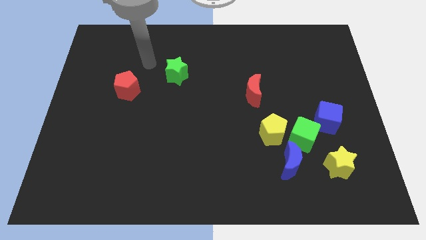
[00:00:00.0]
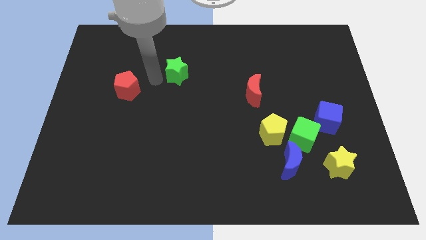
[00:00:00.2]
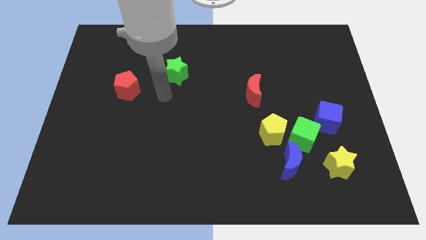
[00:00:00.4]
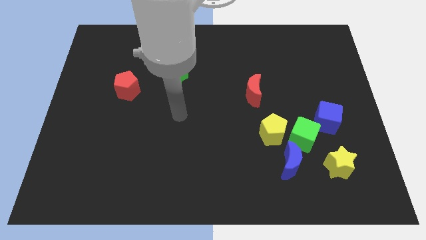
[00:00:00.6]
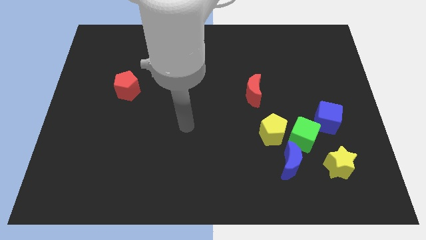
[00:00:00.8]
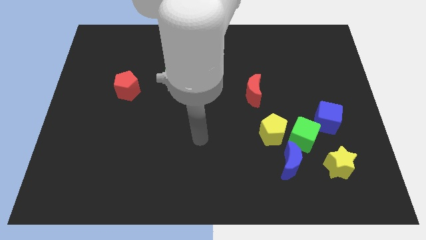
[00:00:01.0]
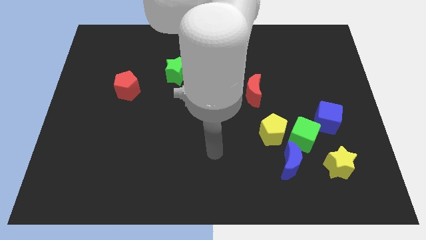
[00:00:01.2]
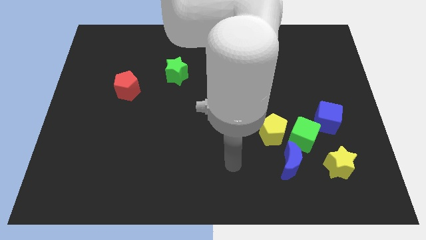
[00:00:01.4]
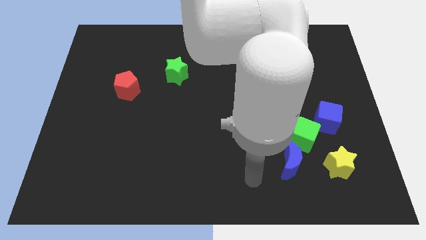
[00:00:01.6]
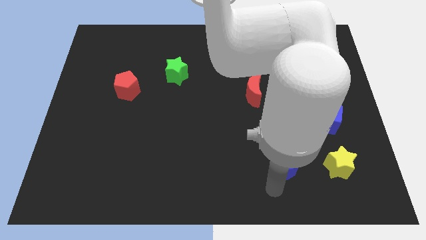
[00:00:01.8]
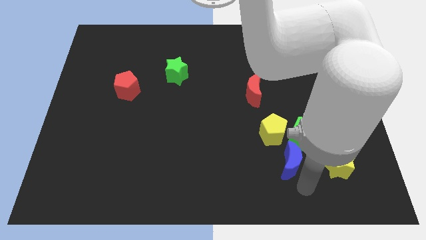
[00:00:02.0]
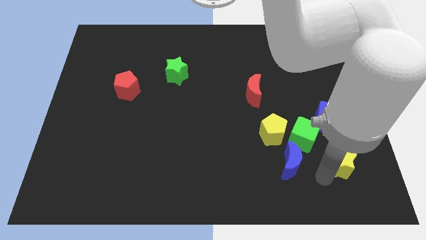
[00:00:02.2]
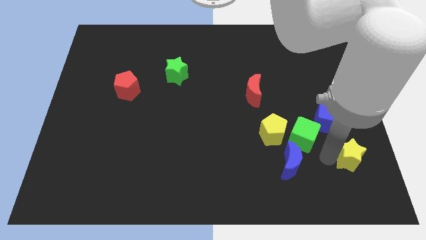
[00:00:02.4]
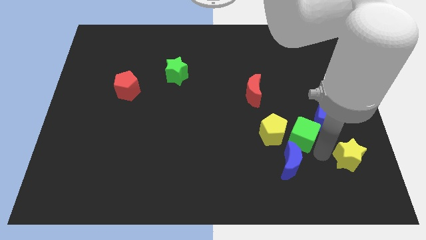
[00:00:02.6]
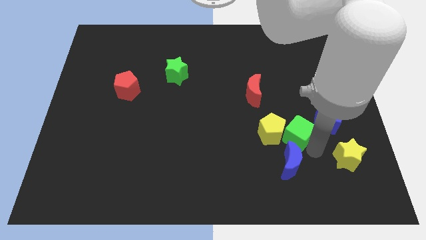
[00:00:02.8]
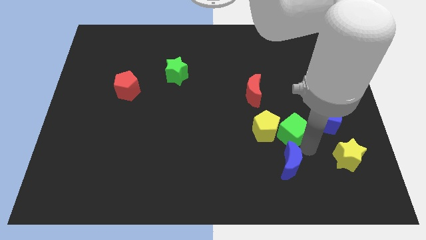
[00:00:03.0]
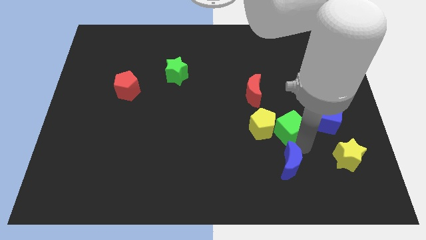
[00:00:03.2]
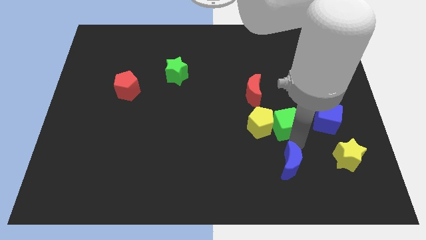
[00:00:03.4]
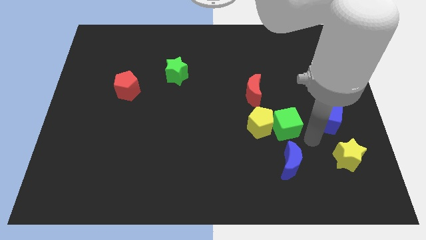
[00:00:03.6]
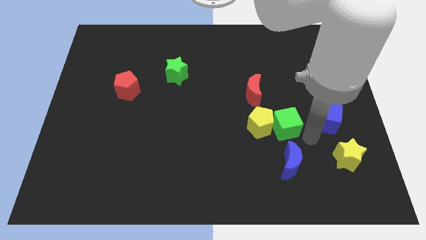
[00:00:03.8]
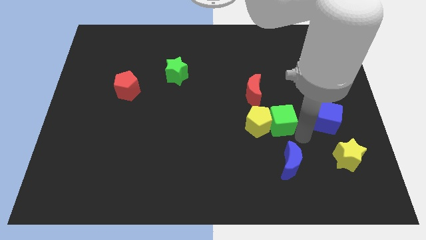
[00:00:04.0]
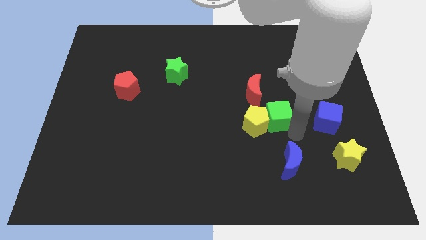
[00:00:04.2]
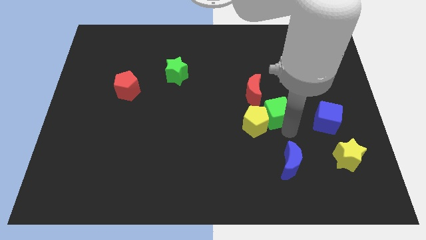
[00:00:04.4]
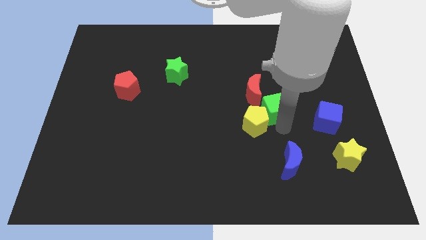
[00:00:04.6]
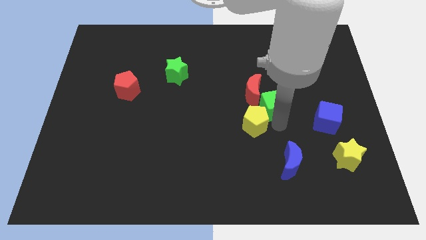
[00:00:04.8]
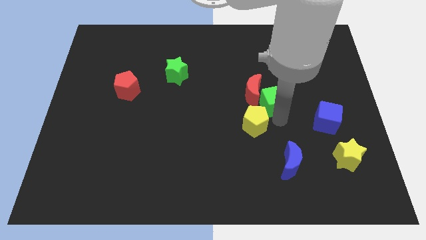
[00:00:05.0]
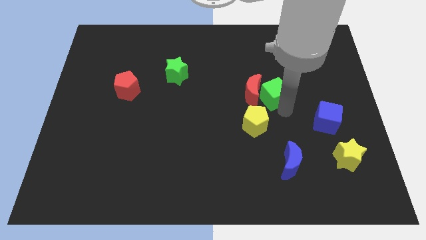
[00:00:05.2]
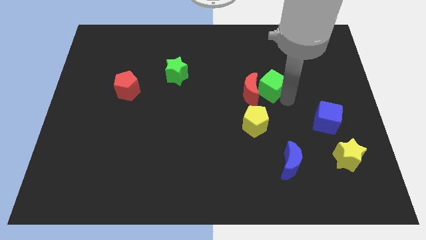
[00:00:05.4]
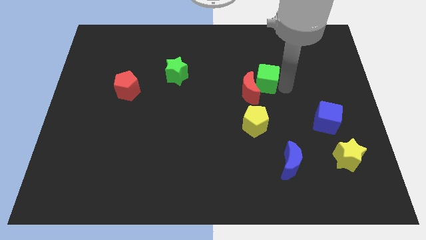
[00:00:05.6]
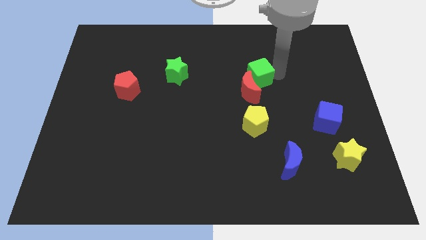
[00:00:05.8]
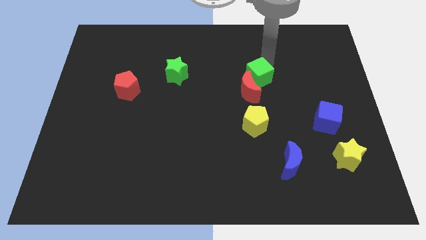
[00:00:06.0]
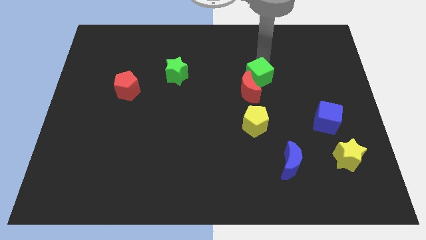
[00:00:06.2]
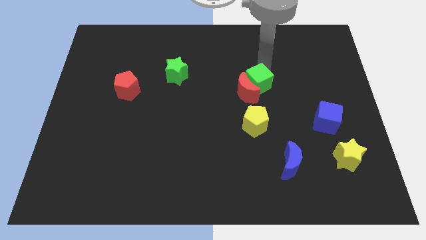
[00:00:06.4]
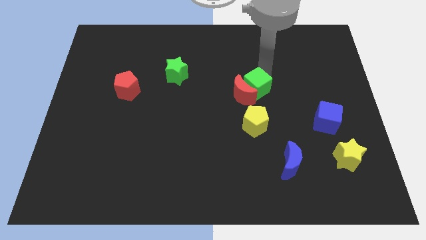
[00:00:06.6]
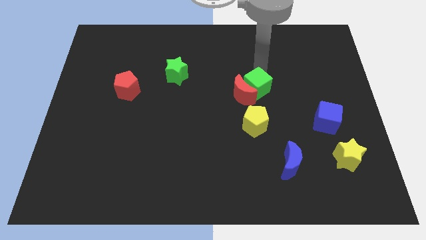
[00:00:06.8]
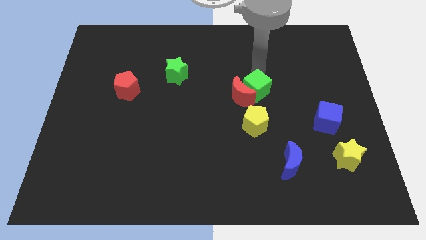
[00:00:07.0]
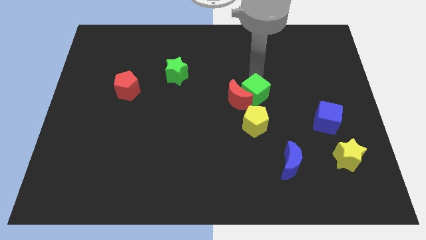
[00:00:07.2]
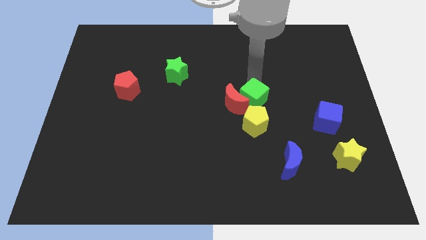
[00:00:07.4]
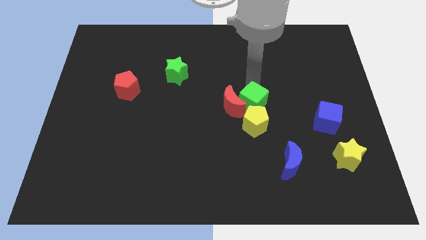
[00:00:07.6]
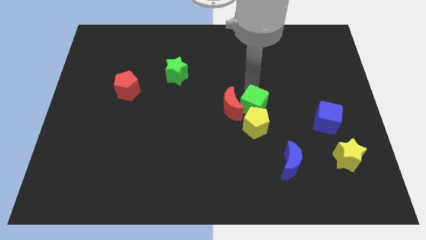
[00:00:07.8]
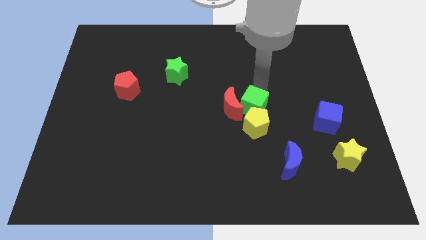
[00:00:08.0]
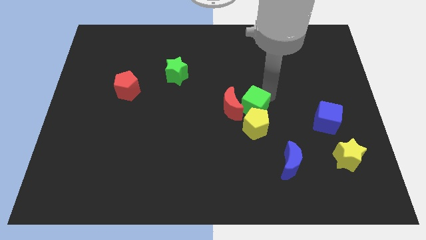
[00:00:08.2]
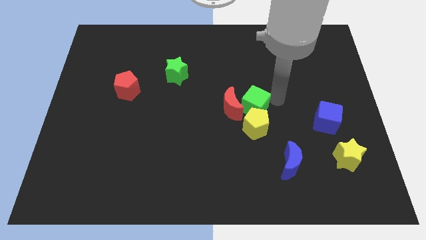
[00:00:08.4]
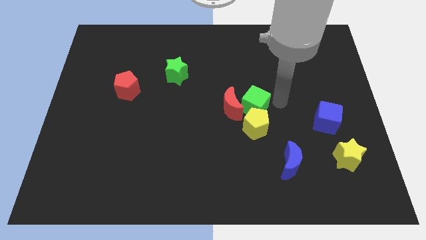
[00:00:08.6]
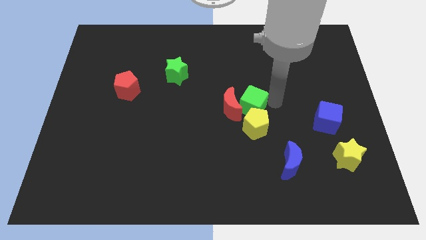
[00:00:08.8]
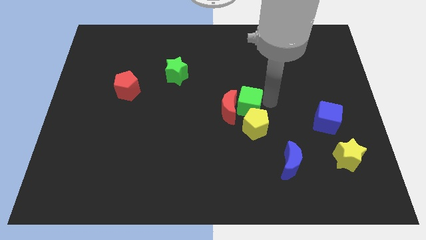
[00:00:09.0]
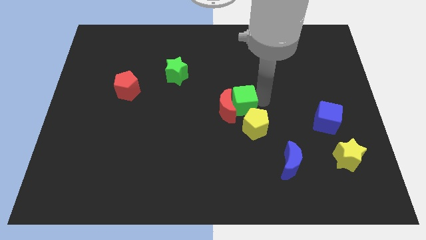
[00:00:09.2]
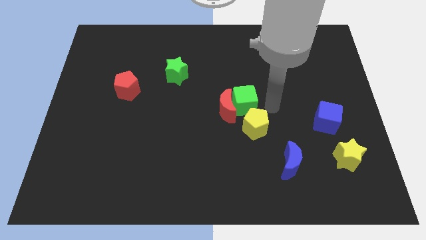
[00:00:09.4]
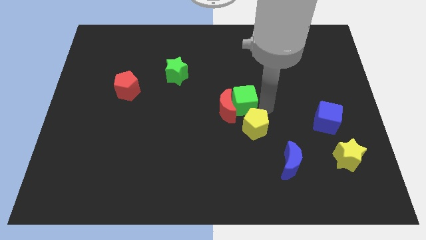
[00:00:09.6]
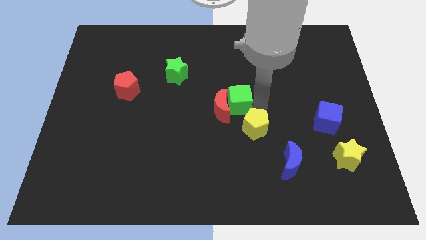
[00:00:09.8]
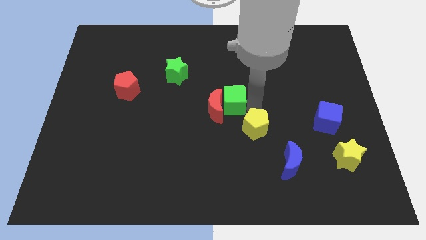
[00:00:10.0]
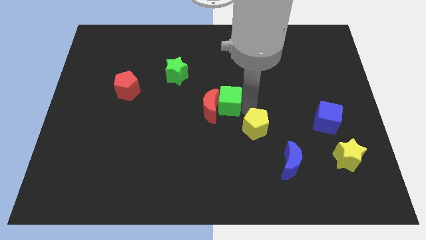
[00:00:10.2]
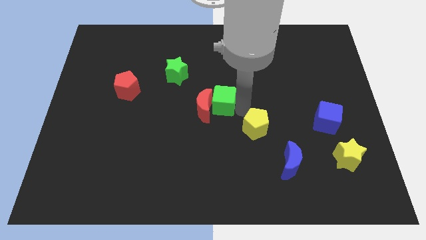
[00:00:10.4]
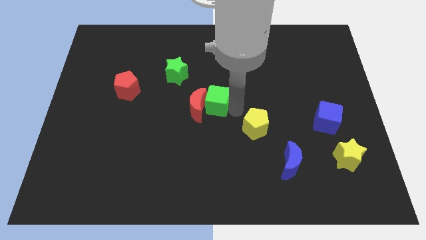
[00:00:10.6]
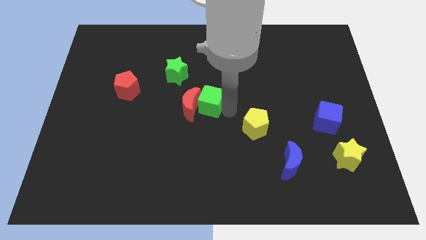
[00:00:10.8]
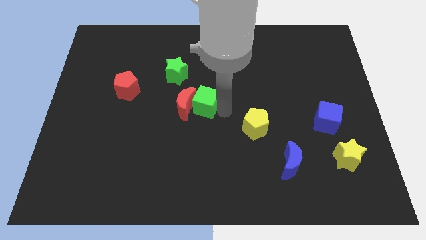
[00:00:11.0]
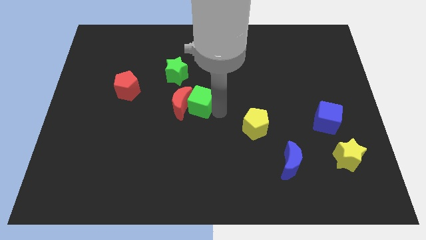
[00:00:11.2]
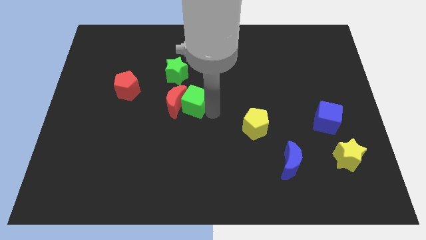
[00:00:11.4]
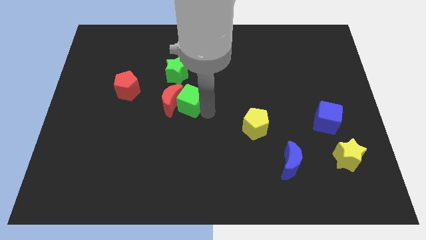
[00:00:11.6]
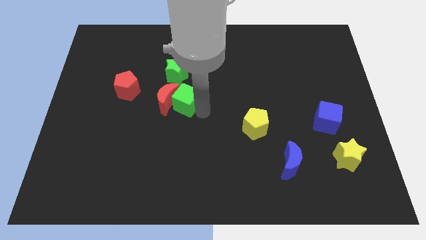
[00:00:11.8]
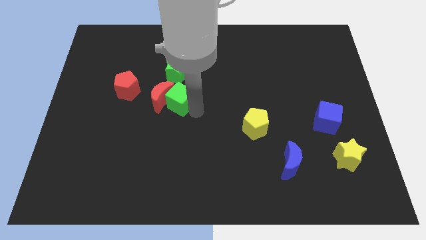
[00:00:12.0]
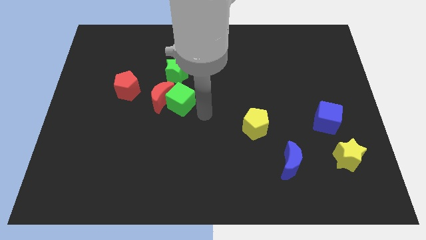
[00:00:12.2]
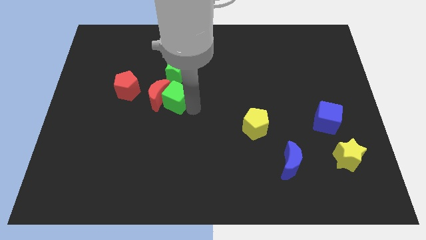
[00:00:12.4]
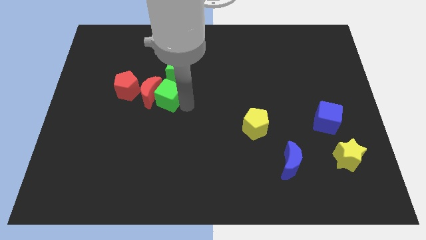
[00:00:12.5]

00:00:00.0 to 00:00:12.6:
move the green cube to the bottom left side of the green star
